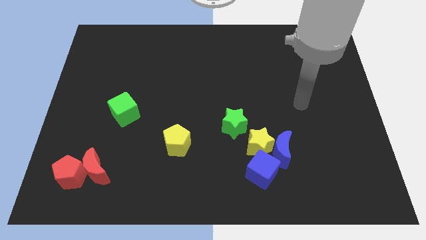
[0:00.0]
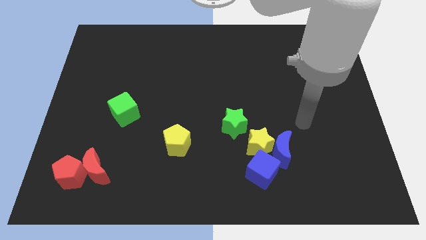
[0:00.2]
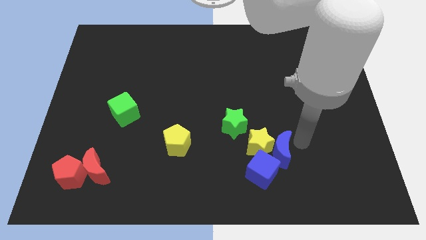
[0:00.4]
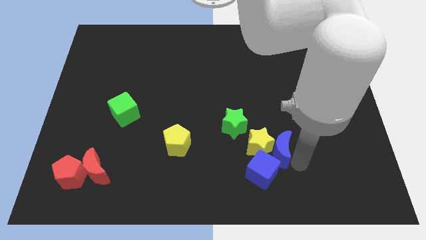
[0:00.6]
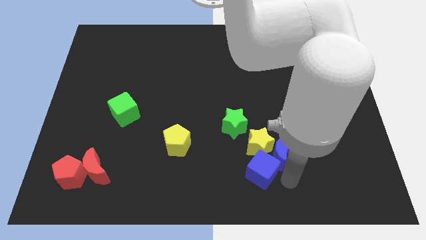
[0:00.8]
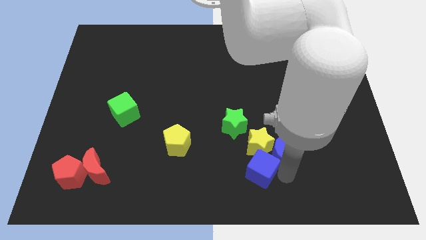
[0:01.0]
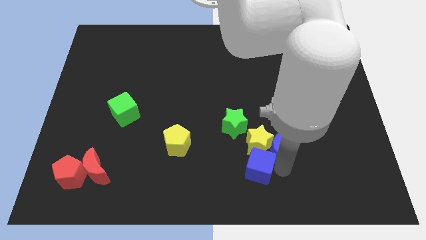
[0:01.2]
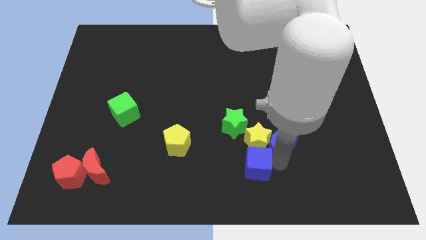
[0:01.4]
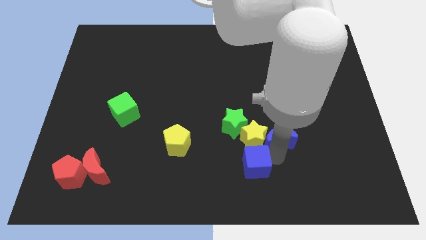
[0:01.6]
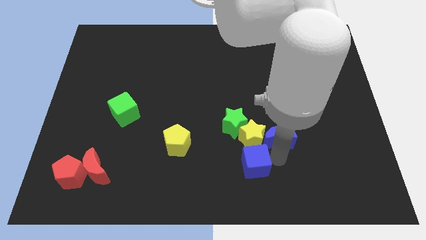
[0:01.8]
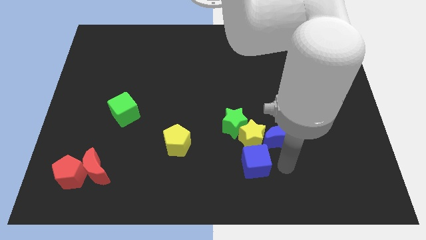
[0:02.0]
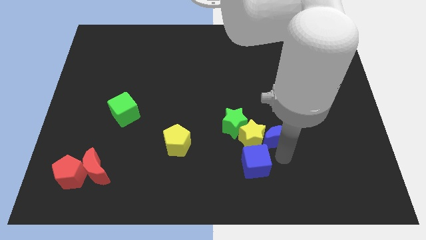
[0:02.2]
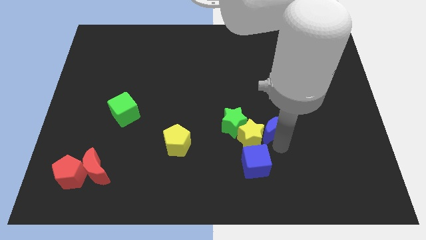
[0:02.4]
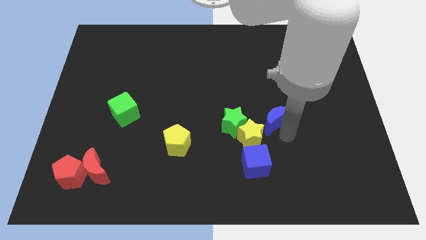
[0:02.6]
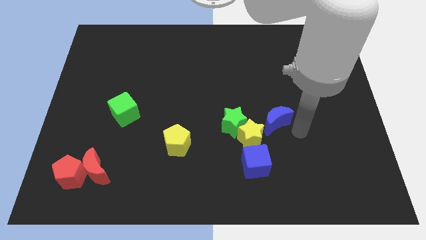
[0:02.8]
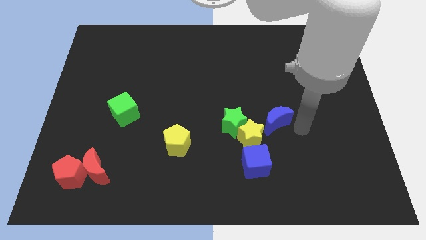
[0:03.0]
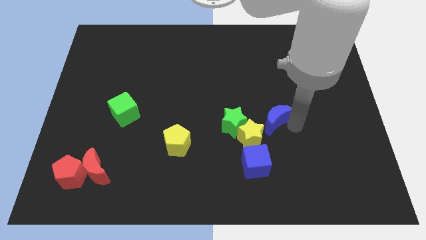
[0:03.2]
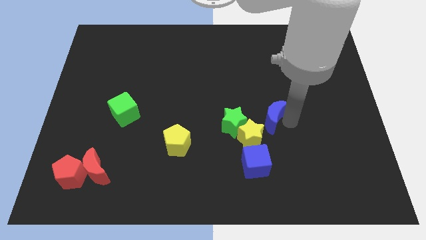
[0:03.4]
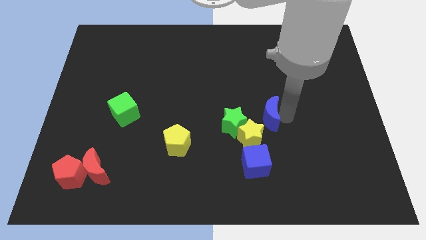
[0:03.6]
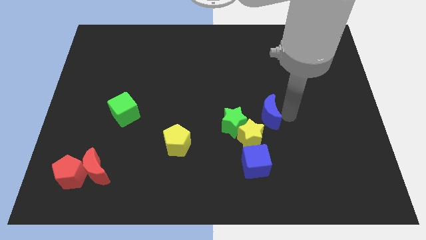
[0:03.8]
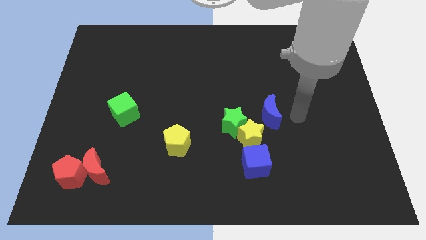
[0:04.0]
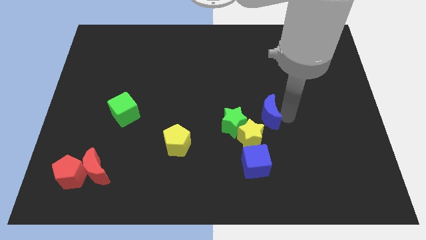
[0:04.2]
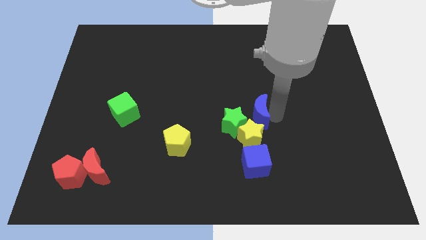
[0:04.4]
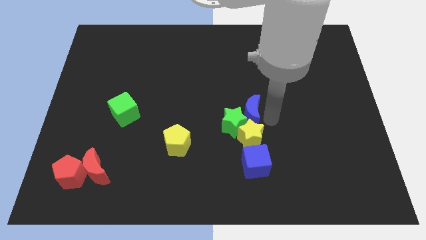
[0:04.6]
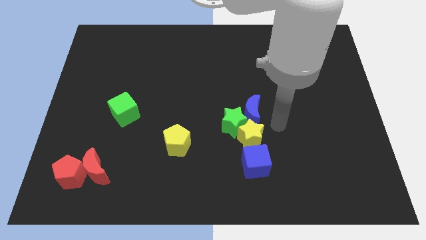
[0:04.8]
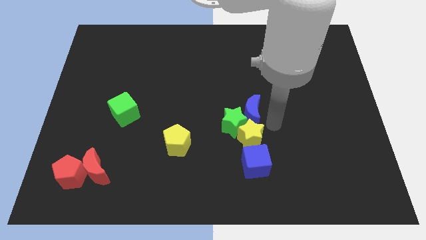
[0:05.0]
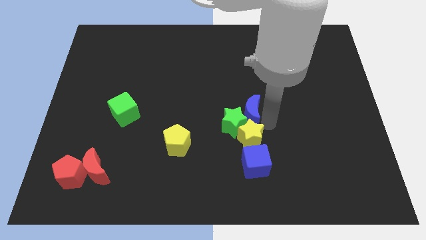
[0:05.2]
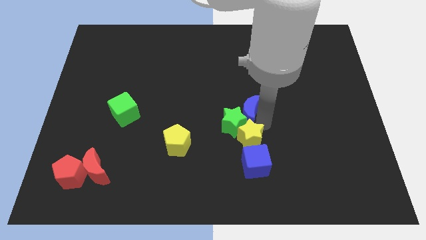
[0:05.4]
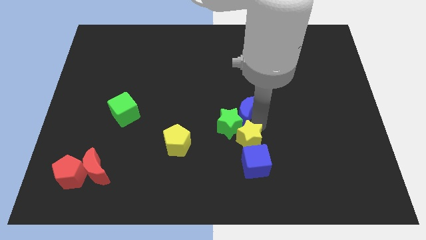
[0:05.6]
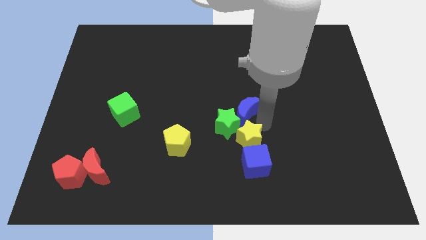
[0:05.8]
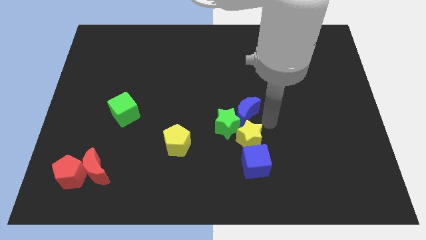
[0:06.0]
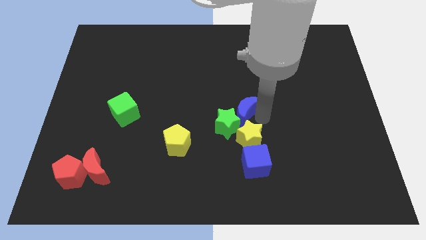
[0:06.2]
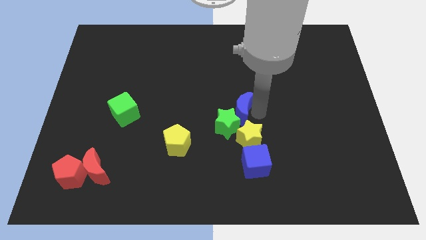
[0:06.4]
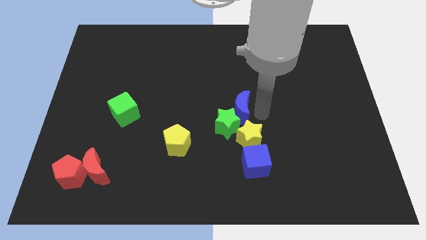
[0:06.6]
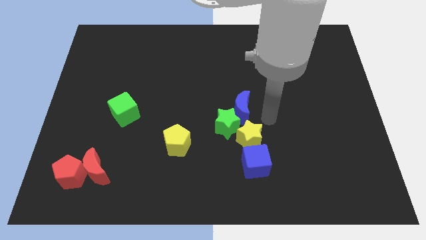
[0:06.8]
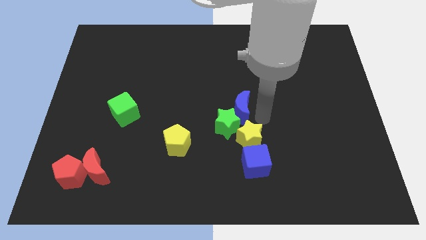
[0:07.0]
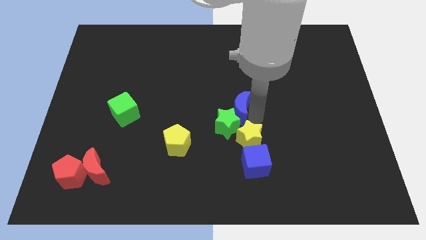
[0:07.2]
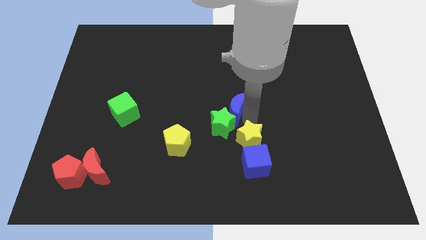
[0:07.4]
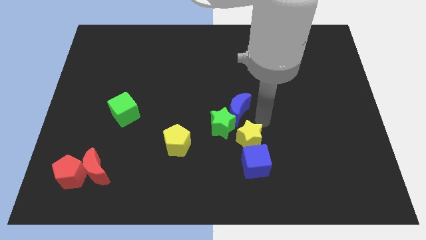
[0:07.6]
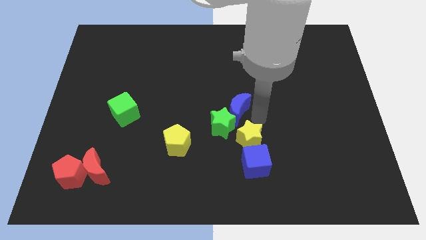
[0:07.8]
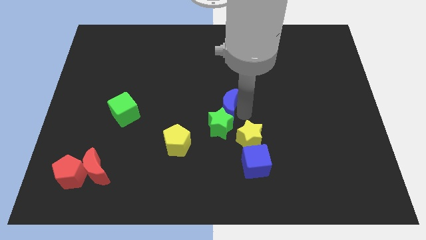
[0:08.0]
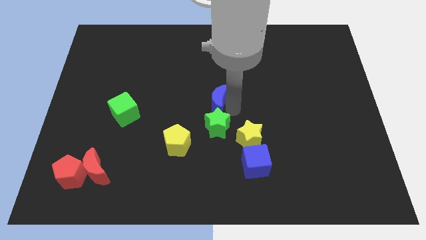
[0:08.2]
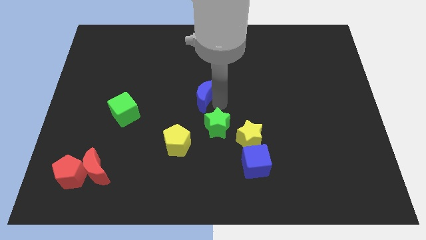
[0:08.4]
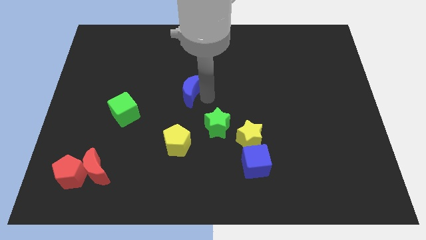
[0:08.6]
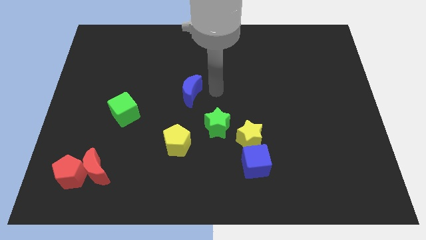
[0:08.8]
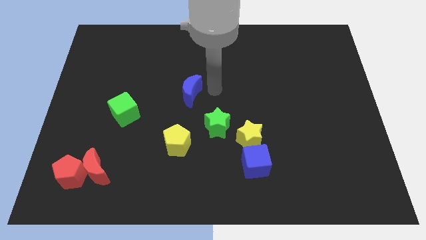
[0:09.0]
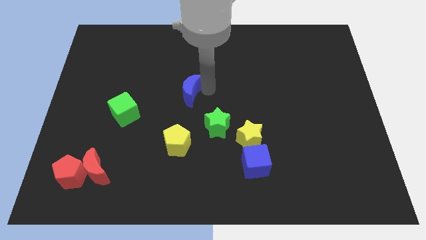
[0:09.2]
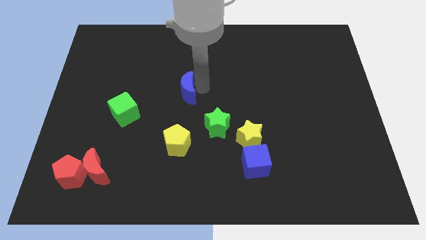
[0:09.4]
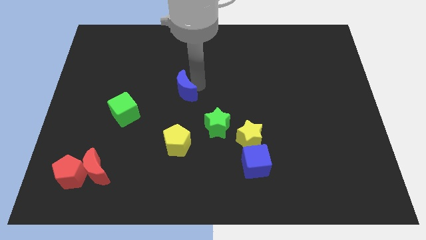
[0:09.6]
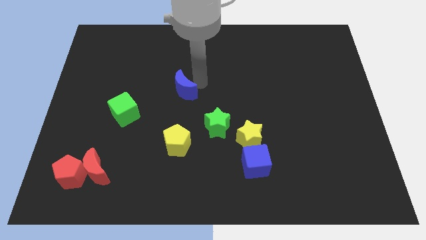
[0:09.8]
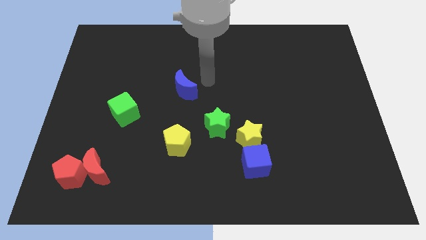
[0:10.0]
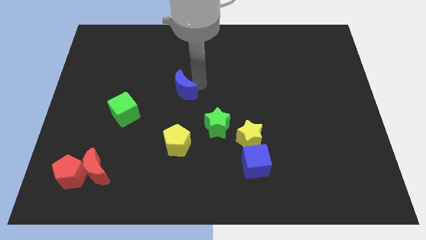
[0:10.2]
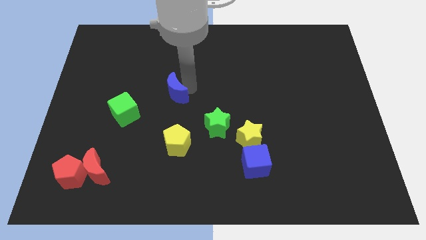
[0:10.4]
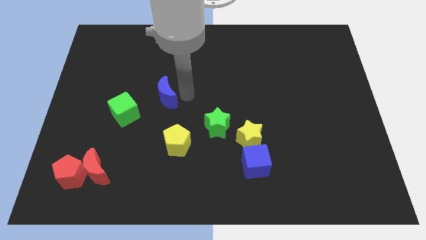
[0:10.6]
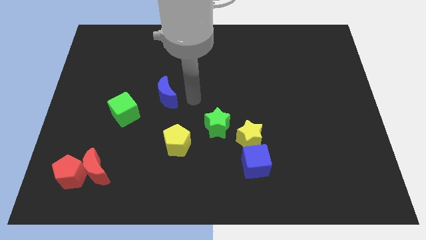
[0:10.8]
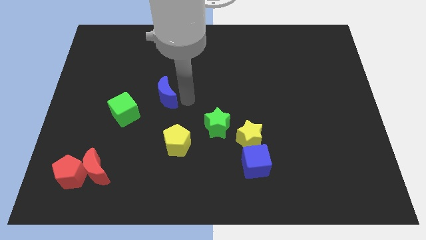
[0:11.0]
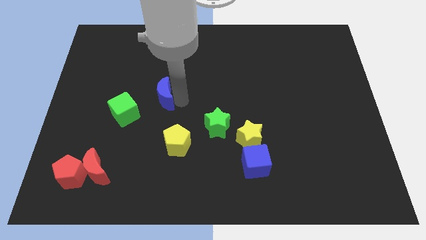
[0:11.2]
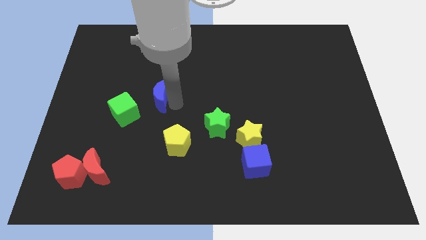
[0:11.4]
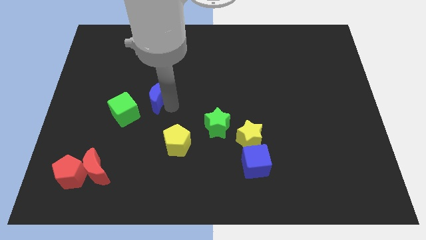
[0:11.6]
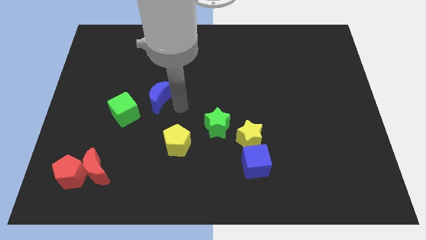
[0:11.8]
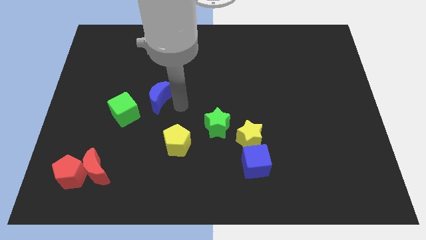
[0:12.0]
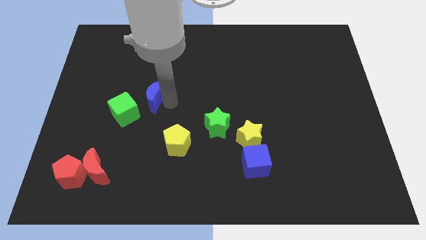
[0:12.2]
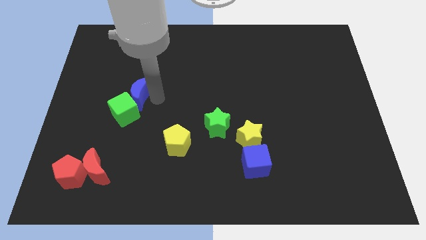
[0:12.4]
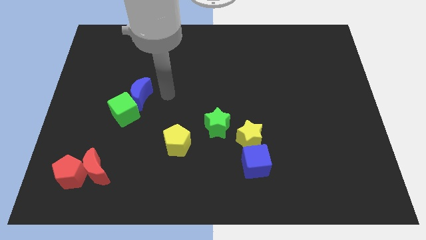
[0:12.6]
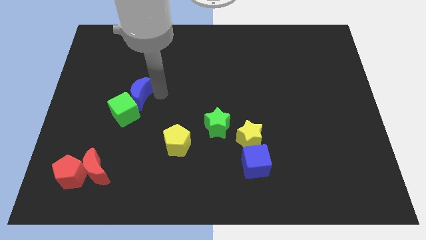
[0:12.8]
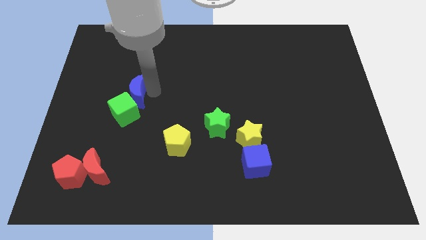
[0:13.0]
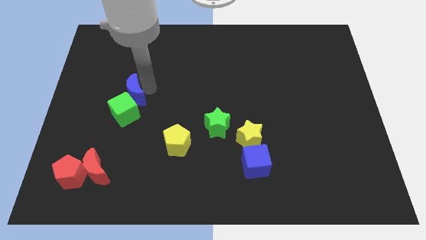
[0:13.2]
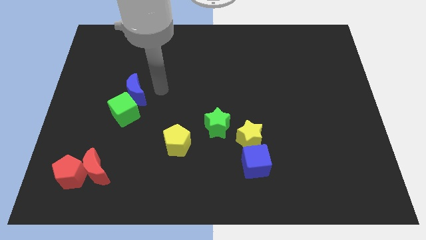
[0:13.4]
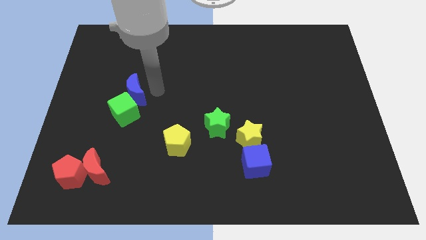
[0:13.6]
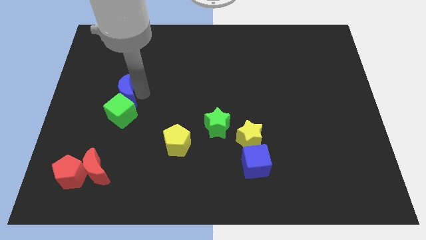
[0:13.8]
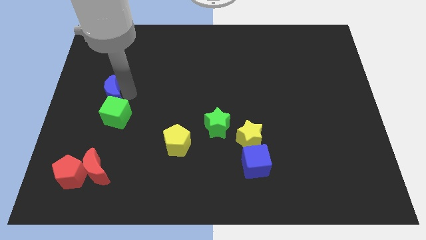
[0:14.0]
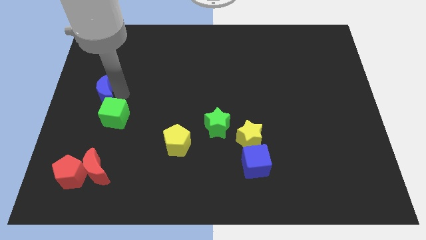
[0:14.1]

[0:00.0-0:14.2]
slide the blue moon to the left side of the board
